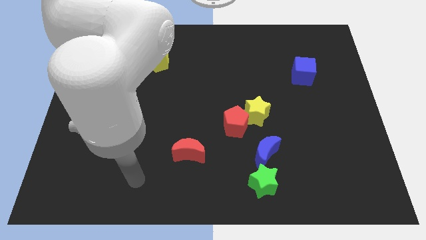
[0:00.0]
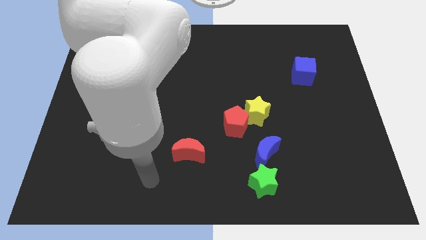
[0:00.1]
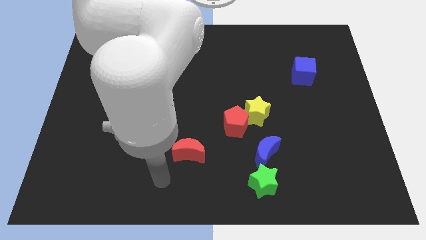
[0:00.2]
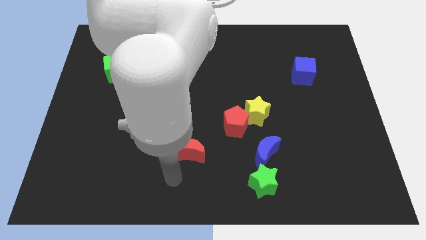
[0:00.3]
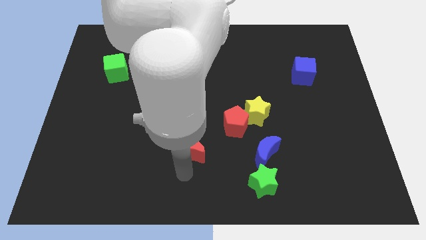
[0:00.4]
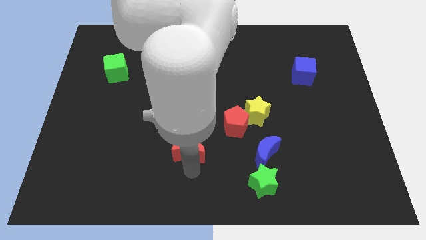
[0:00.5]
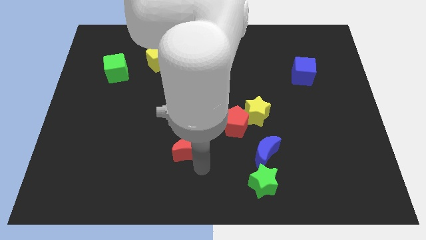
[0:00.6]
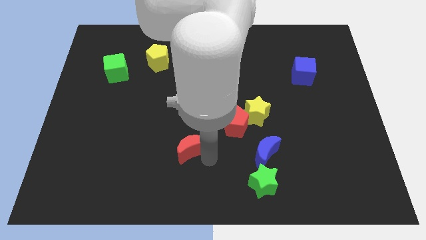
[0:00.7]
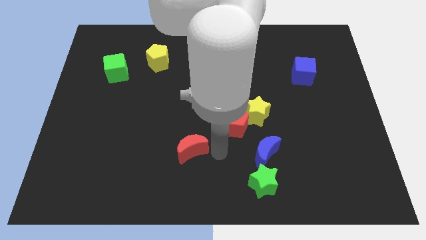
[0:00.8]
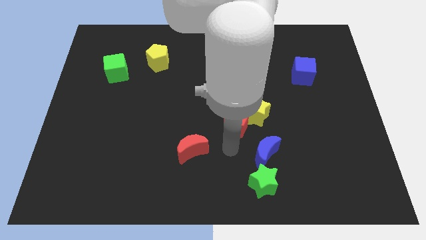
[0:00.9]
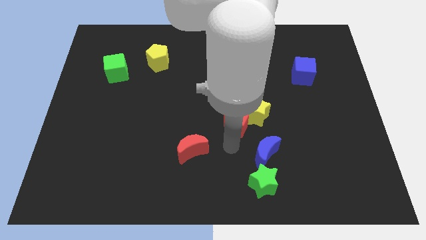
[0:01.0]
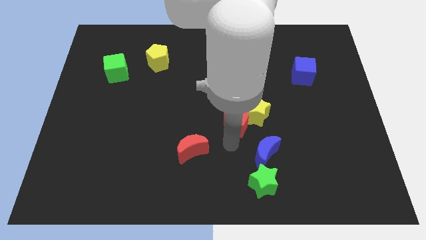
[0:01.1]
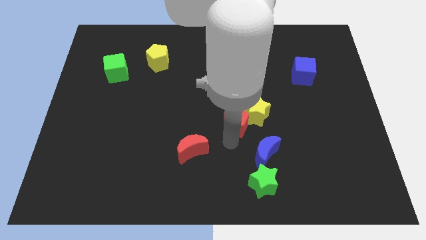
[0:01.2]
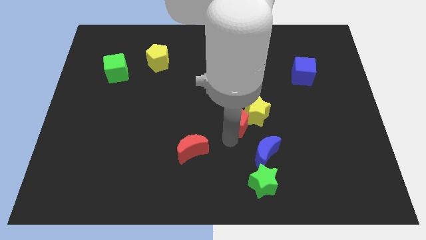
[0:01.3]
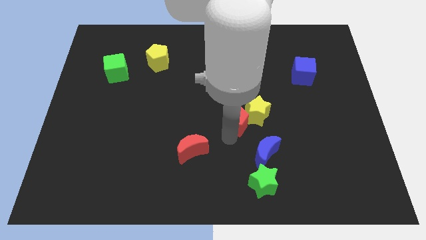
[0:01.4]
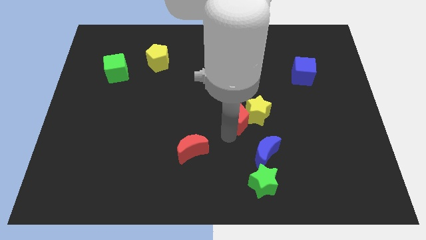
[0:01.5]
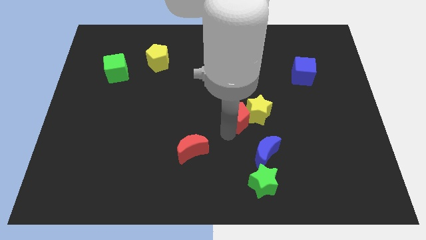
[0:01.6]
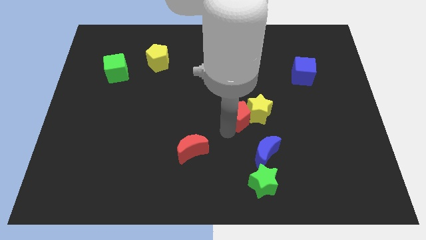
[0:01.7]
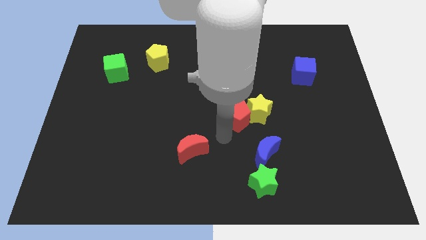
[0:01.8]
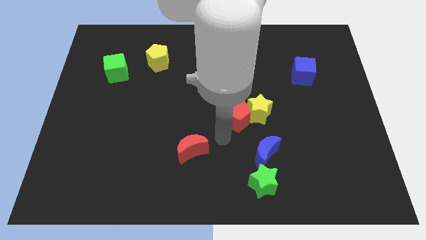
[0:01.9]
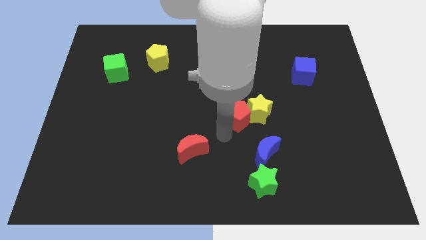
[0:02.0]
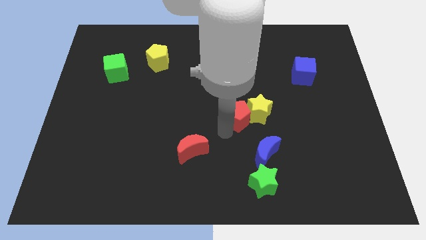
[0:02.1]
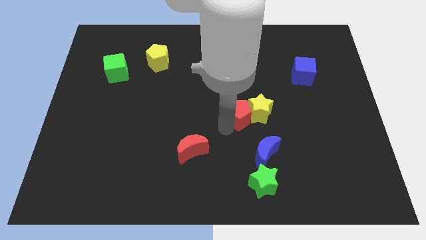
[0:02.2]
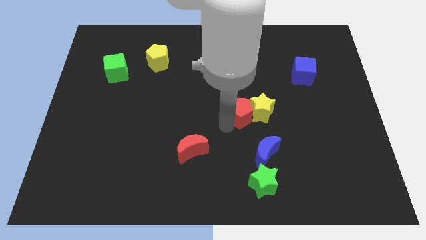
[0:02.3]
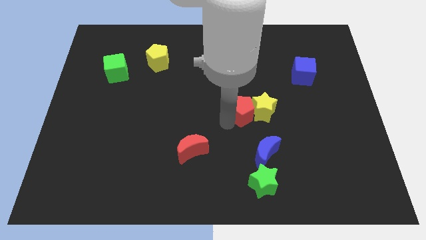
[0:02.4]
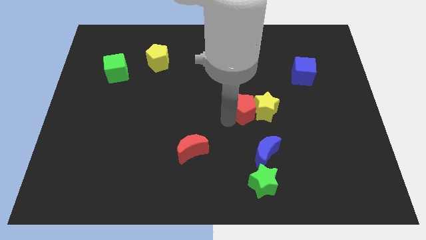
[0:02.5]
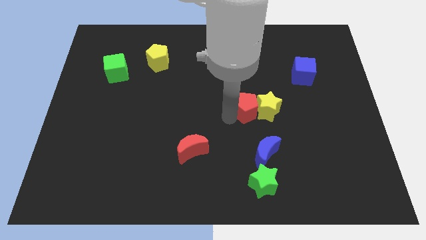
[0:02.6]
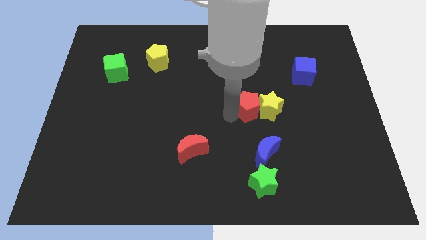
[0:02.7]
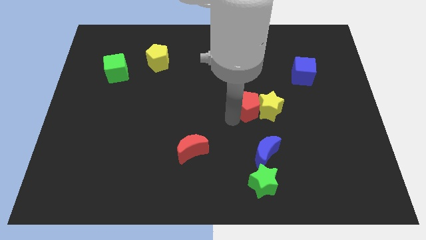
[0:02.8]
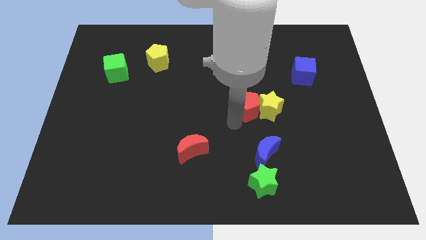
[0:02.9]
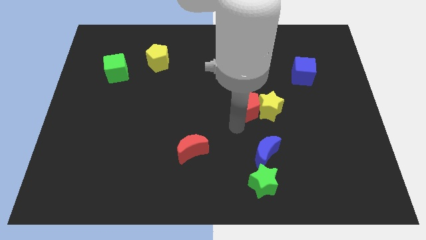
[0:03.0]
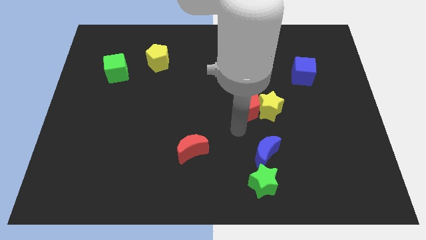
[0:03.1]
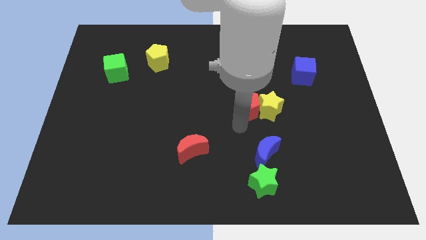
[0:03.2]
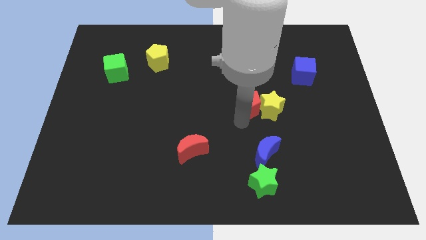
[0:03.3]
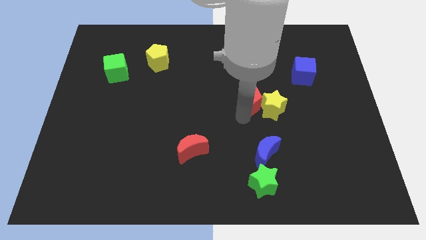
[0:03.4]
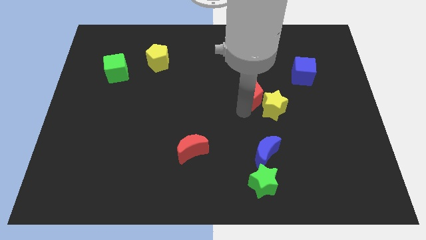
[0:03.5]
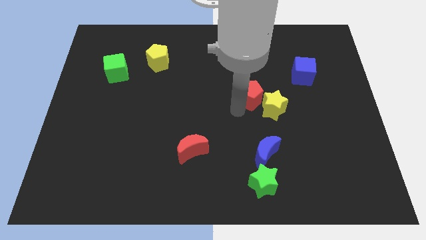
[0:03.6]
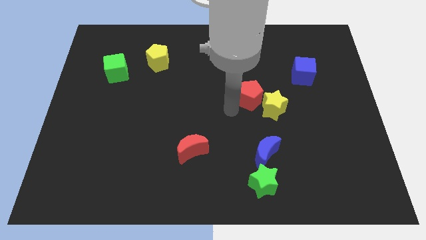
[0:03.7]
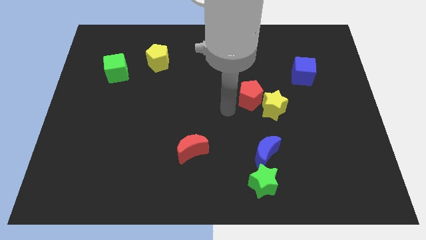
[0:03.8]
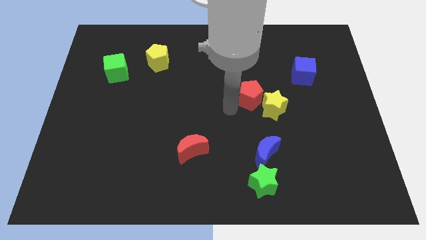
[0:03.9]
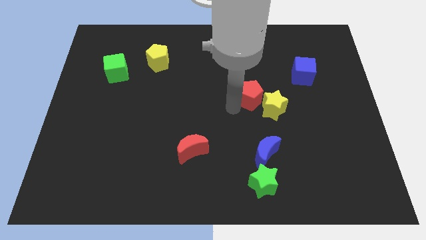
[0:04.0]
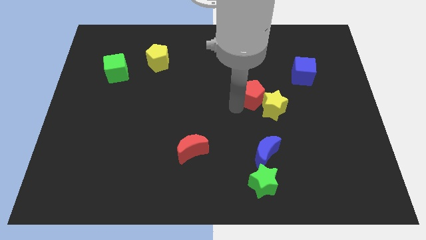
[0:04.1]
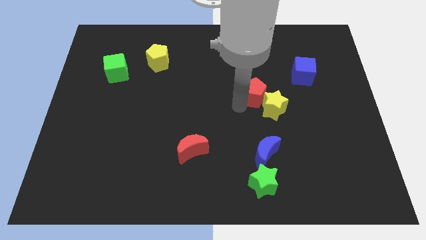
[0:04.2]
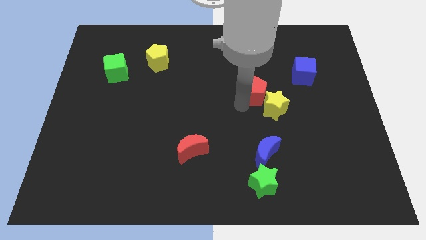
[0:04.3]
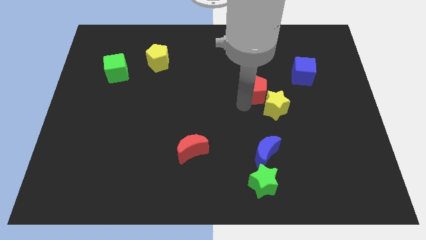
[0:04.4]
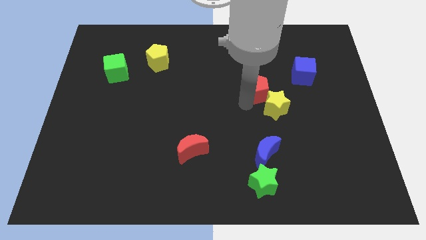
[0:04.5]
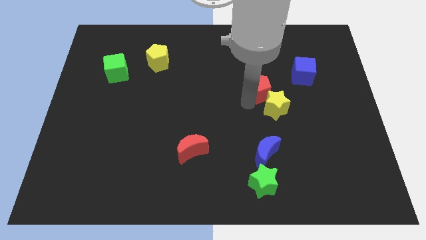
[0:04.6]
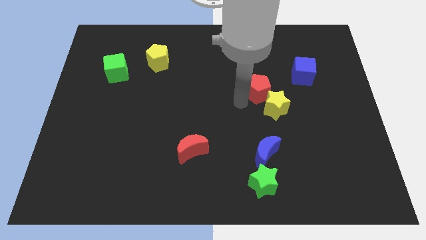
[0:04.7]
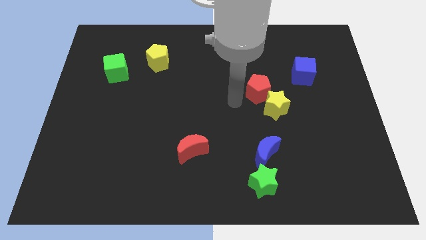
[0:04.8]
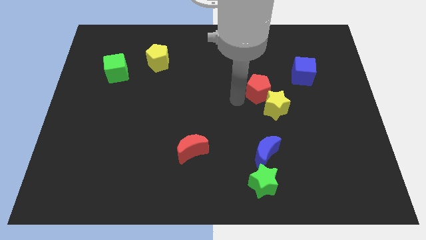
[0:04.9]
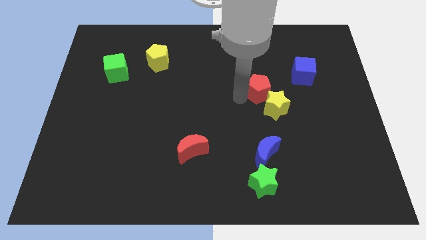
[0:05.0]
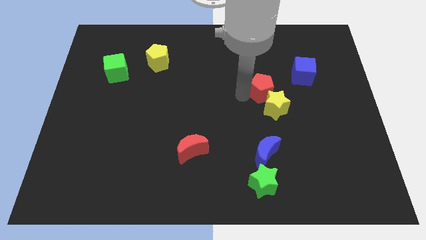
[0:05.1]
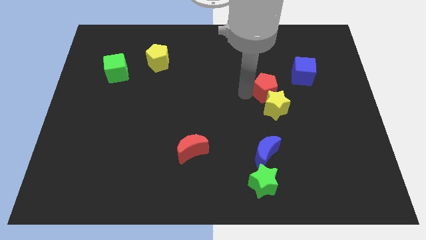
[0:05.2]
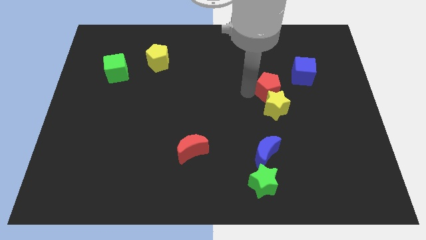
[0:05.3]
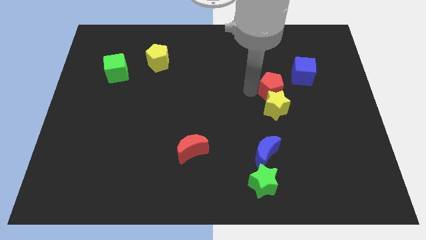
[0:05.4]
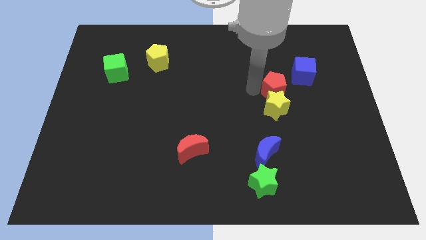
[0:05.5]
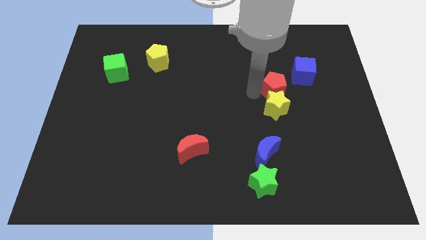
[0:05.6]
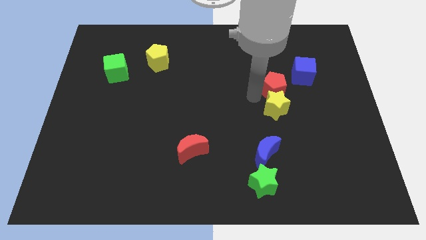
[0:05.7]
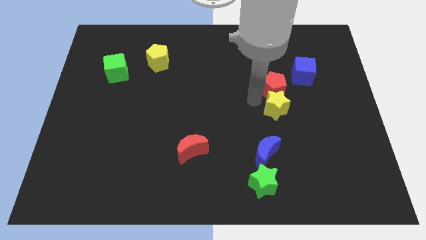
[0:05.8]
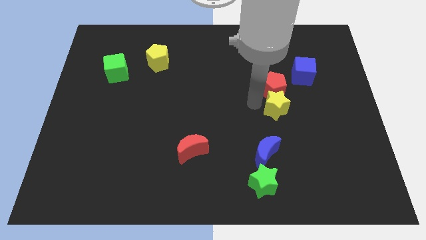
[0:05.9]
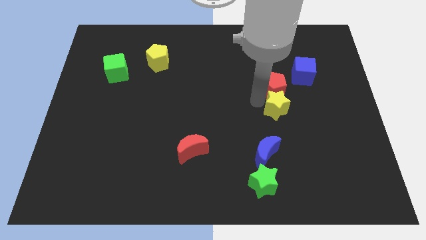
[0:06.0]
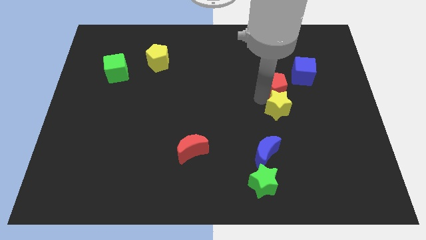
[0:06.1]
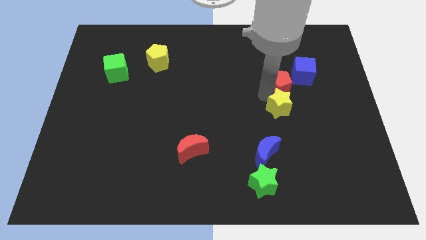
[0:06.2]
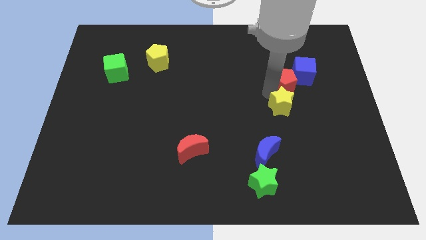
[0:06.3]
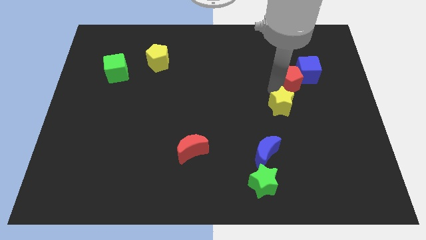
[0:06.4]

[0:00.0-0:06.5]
push the red pentagon close to the blue cube

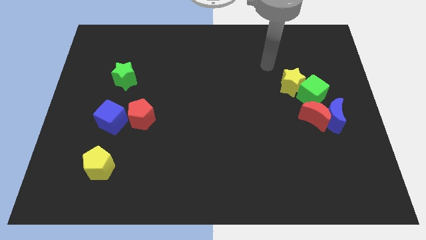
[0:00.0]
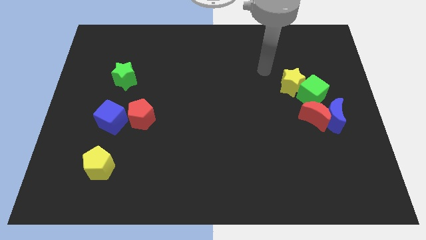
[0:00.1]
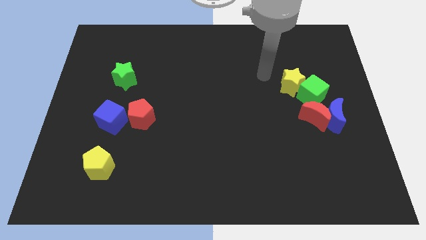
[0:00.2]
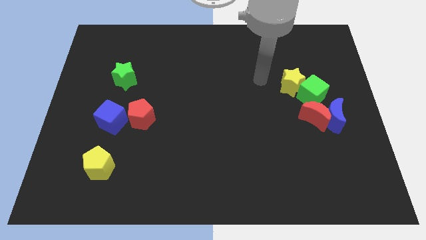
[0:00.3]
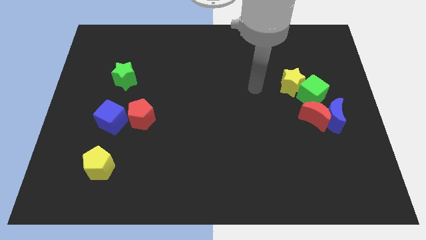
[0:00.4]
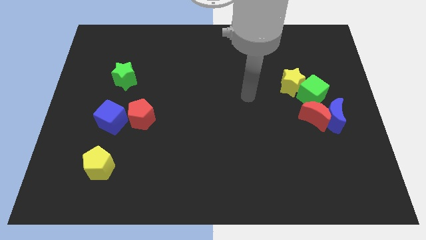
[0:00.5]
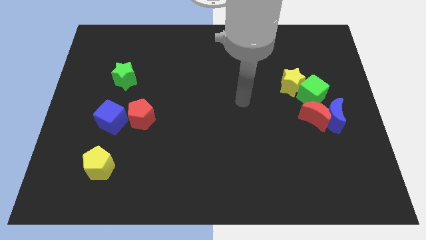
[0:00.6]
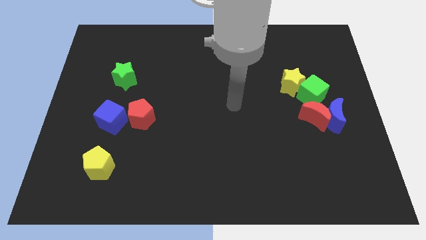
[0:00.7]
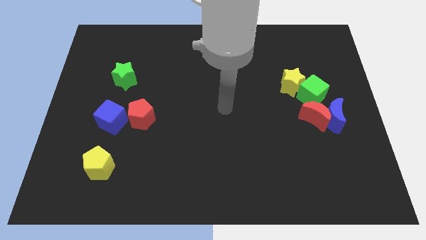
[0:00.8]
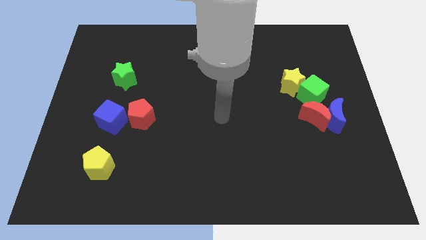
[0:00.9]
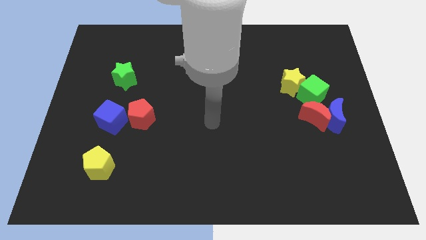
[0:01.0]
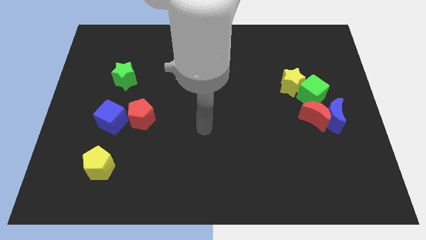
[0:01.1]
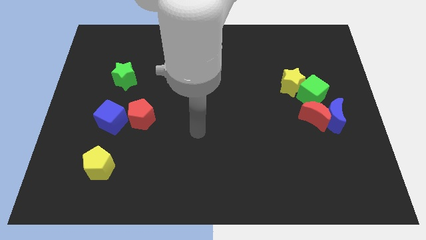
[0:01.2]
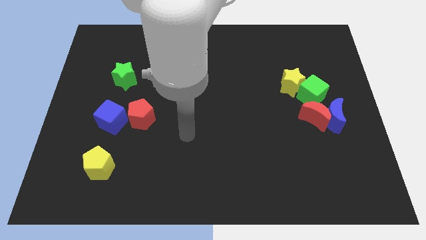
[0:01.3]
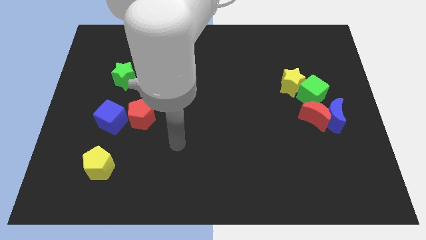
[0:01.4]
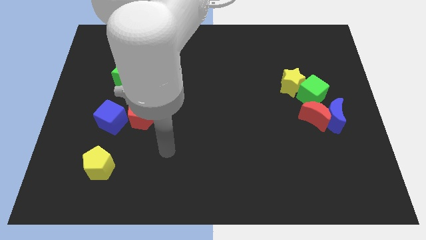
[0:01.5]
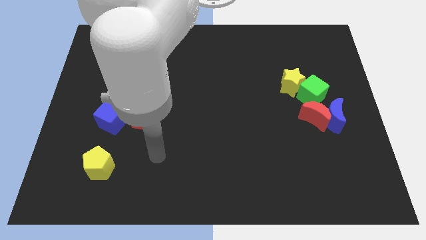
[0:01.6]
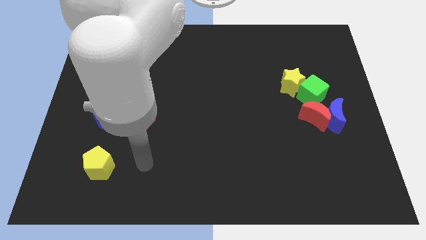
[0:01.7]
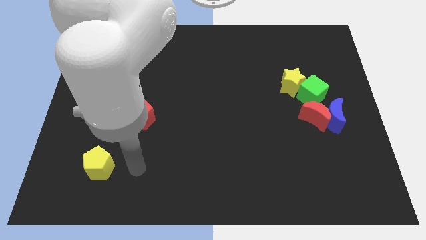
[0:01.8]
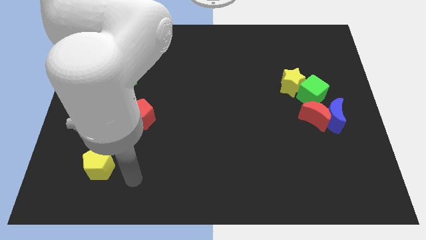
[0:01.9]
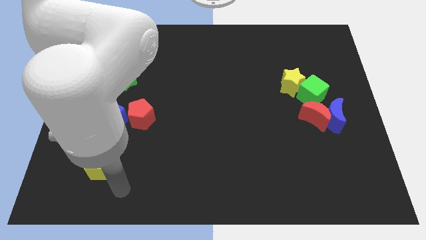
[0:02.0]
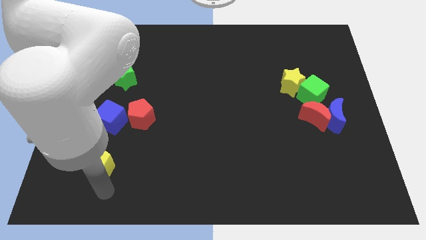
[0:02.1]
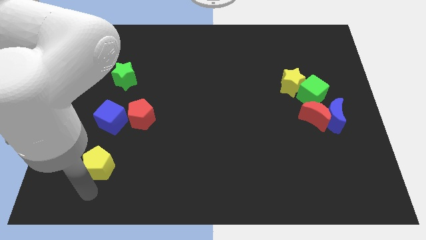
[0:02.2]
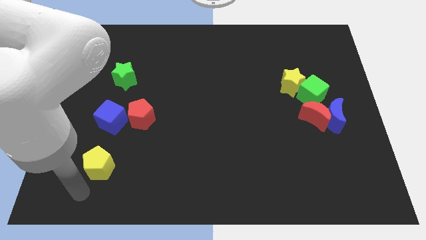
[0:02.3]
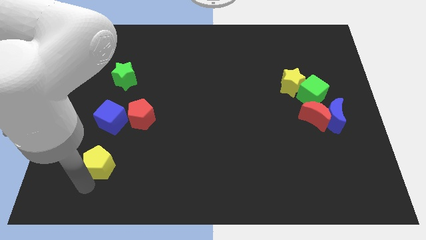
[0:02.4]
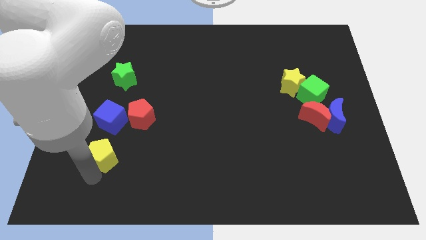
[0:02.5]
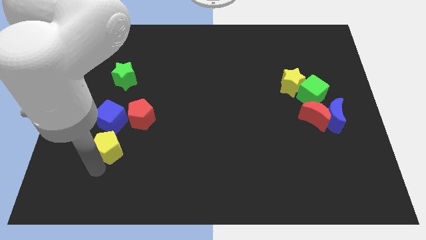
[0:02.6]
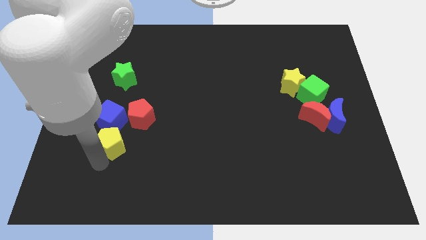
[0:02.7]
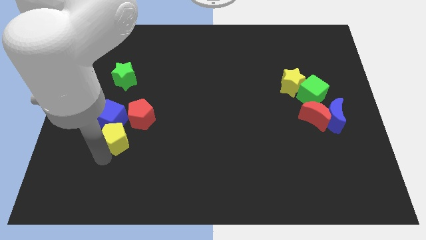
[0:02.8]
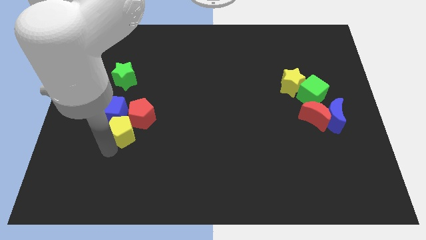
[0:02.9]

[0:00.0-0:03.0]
move the yellow pentagon to the red pentagon
